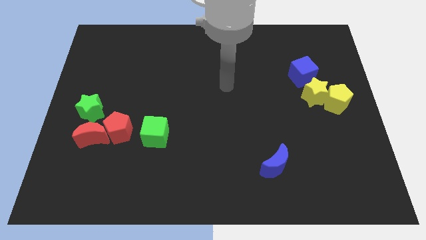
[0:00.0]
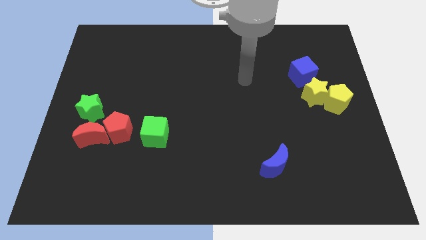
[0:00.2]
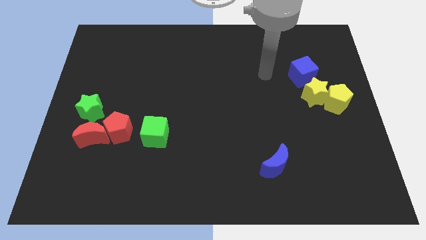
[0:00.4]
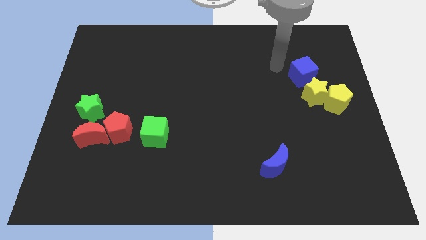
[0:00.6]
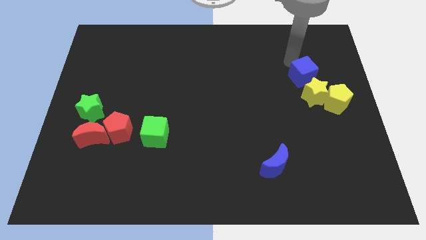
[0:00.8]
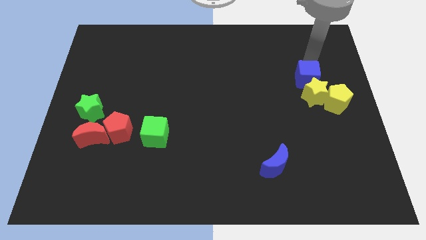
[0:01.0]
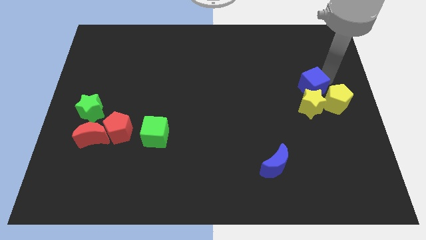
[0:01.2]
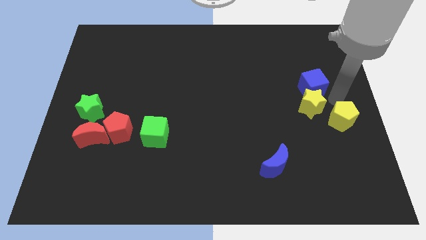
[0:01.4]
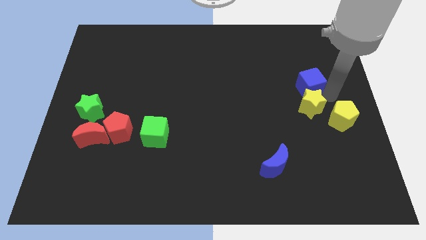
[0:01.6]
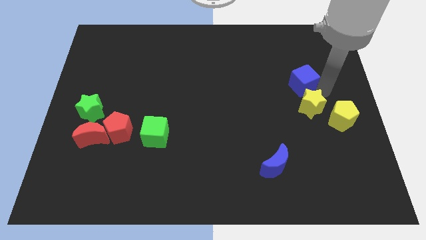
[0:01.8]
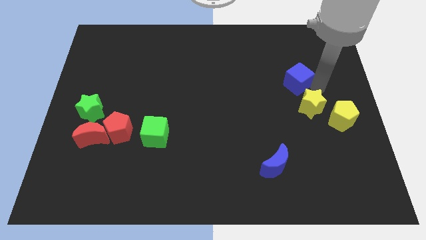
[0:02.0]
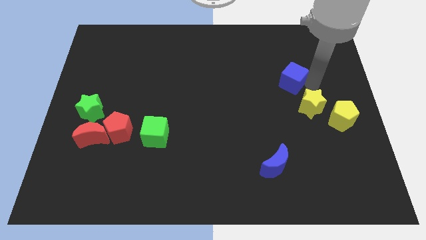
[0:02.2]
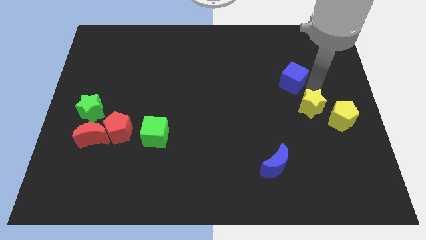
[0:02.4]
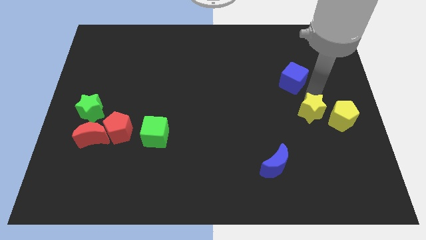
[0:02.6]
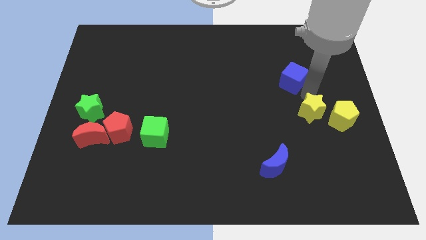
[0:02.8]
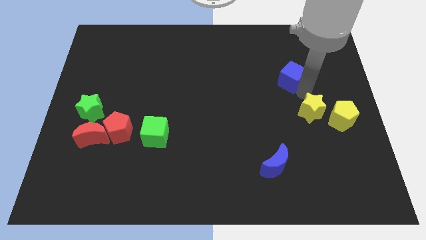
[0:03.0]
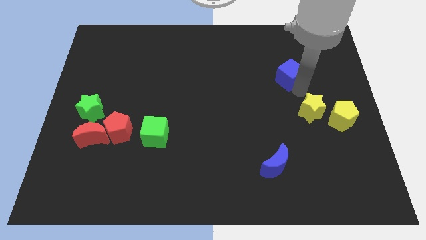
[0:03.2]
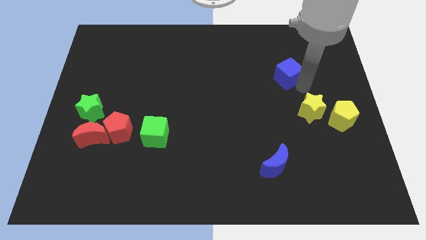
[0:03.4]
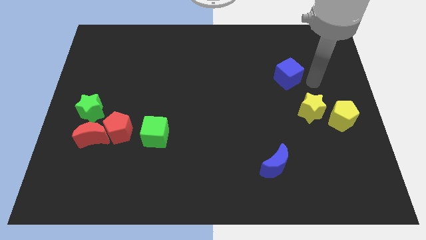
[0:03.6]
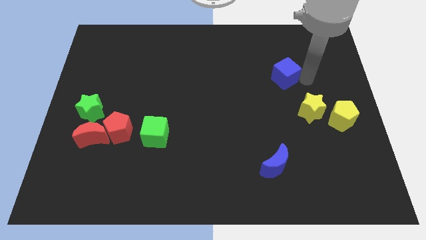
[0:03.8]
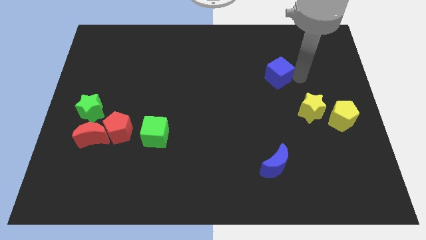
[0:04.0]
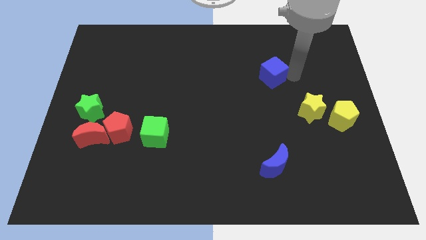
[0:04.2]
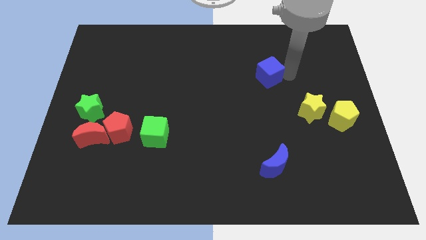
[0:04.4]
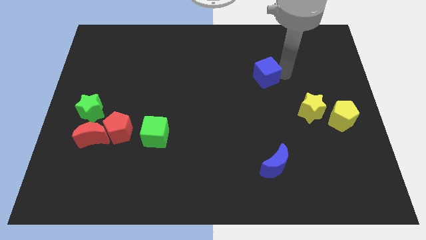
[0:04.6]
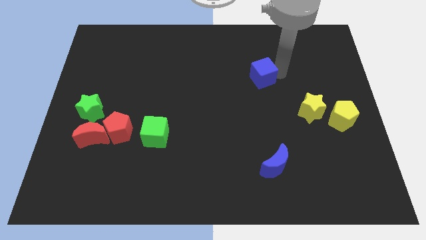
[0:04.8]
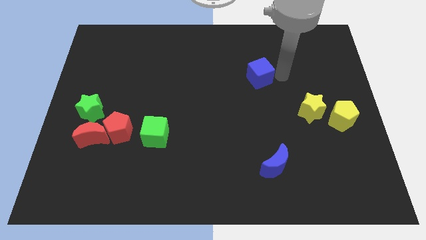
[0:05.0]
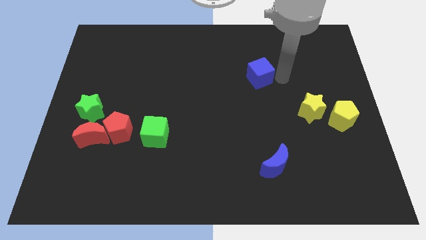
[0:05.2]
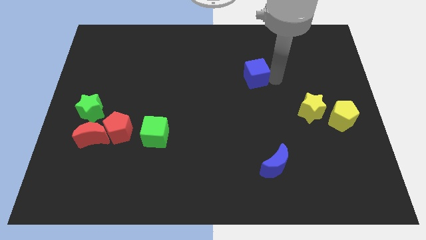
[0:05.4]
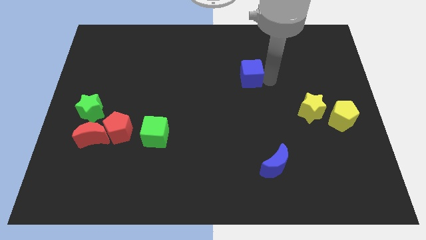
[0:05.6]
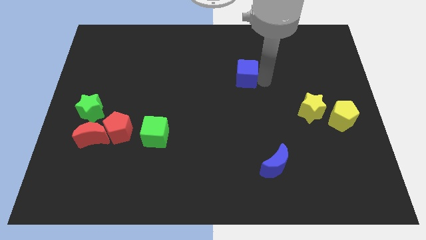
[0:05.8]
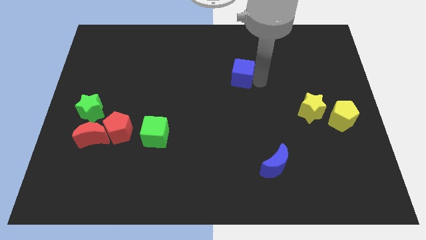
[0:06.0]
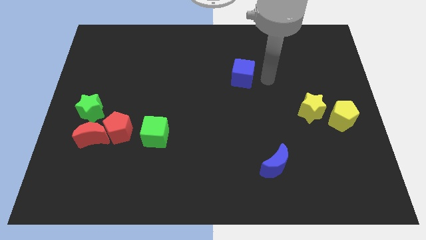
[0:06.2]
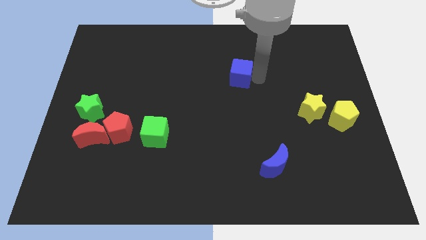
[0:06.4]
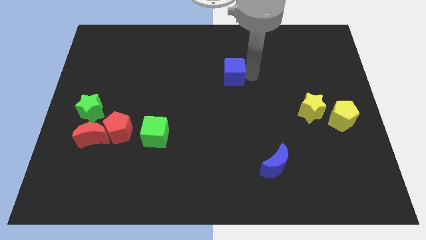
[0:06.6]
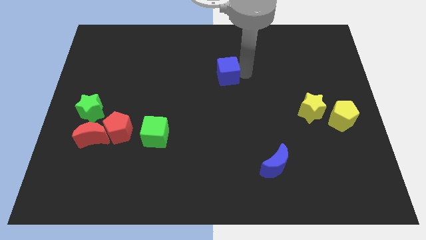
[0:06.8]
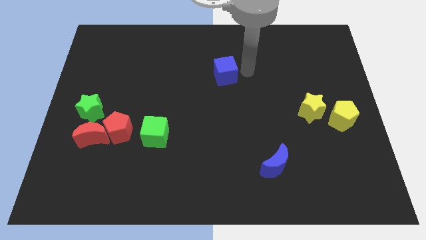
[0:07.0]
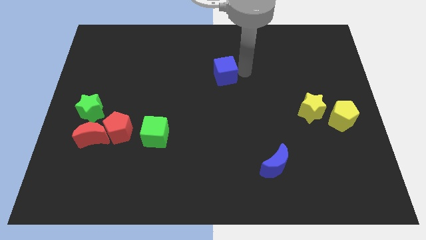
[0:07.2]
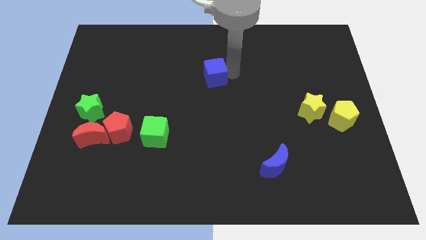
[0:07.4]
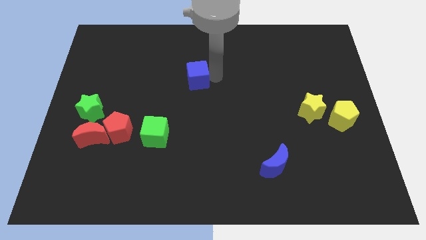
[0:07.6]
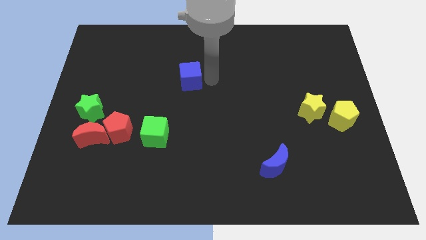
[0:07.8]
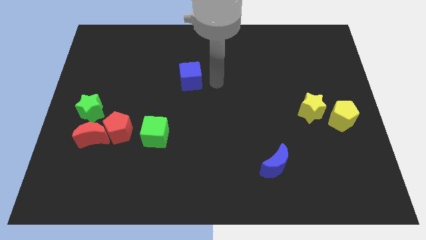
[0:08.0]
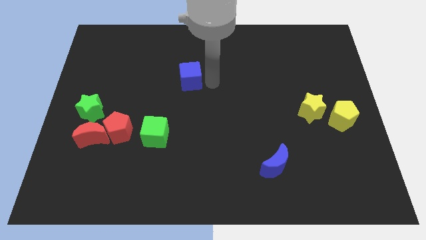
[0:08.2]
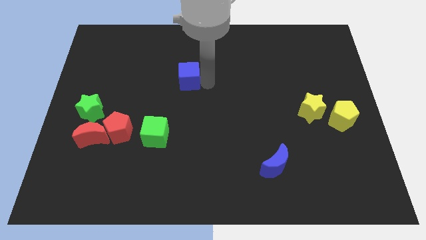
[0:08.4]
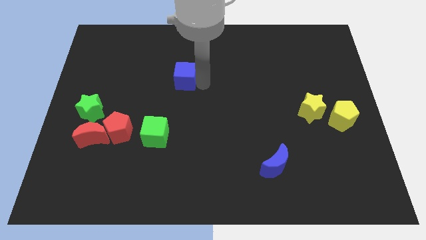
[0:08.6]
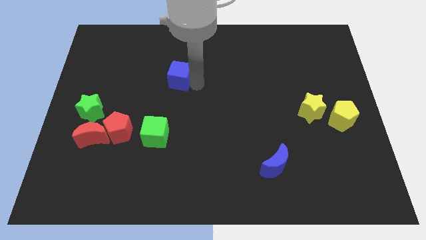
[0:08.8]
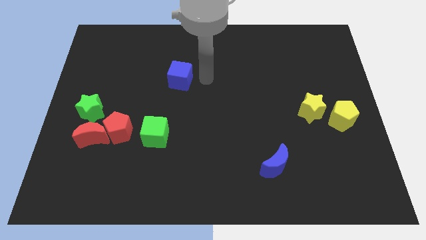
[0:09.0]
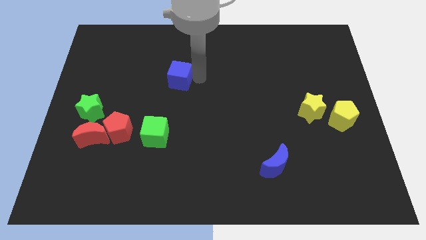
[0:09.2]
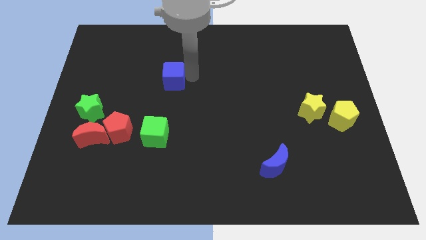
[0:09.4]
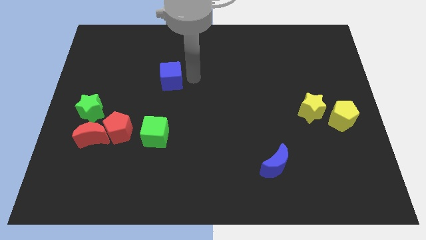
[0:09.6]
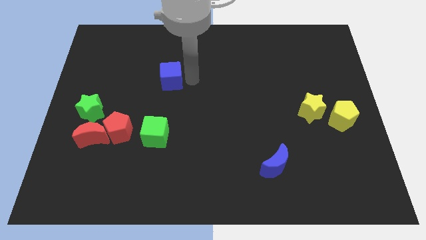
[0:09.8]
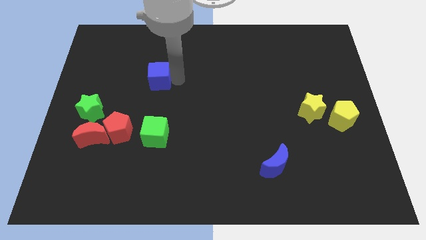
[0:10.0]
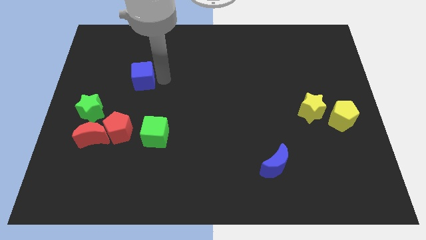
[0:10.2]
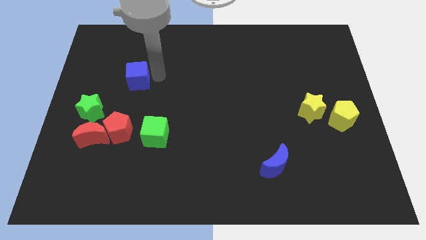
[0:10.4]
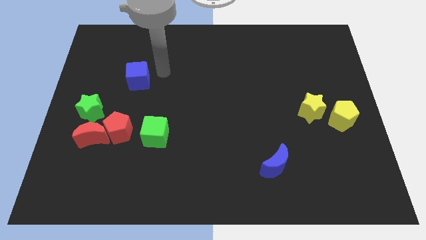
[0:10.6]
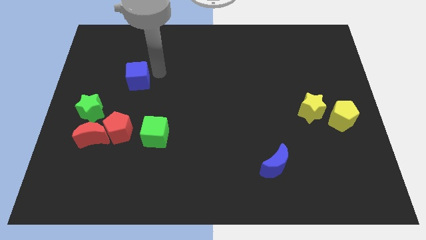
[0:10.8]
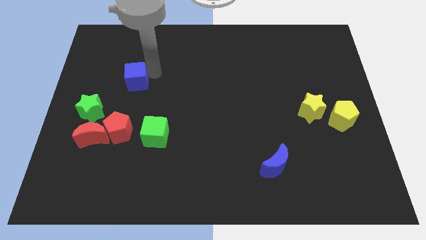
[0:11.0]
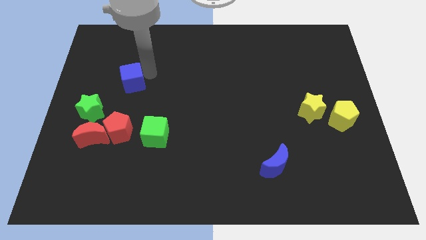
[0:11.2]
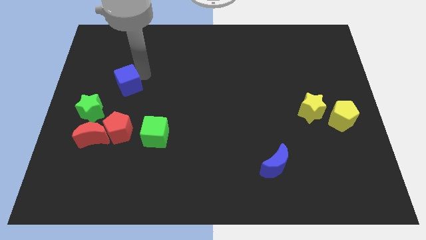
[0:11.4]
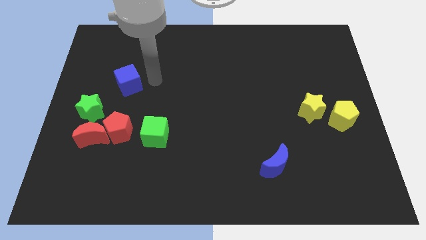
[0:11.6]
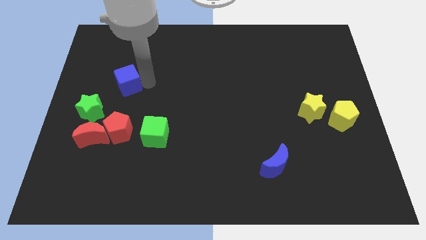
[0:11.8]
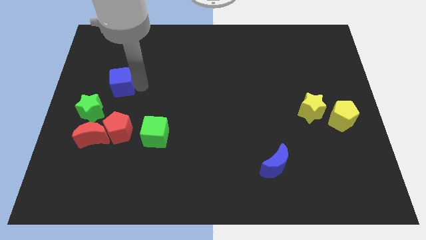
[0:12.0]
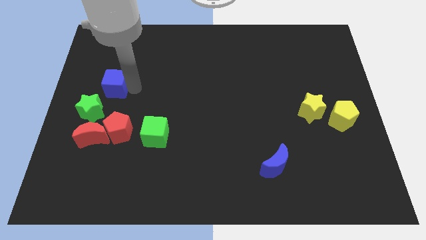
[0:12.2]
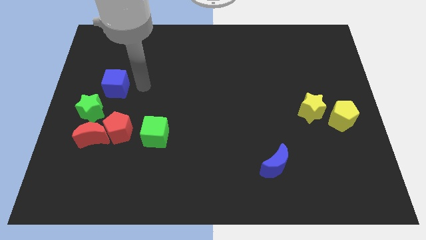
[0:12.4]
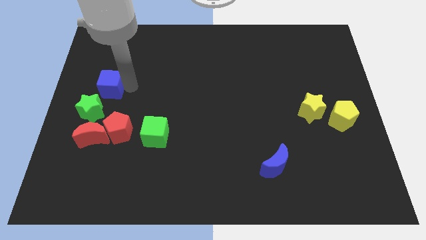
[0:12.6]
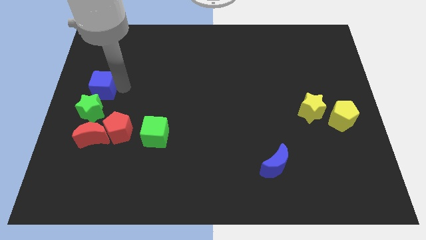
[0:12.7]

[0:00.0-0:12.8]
slide the blue cube to the center left

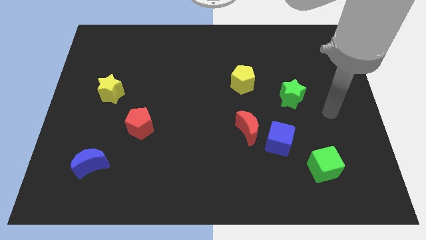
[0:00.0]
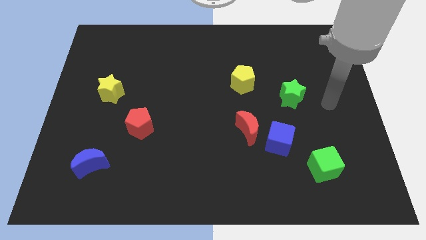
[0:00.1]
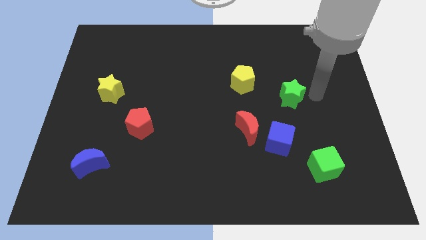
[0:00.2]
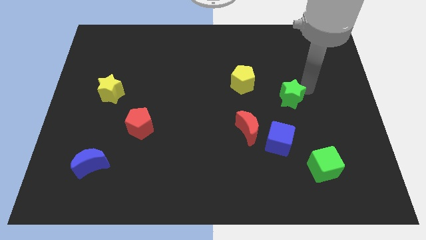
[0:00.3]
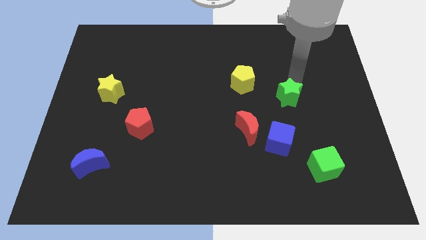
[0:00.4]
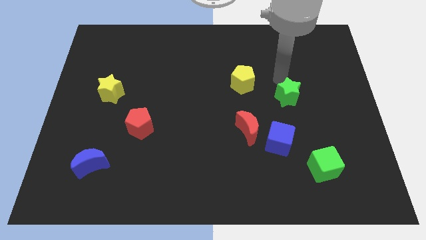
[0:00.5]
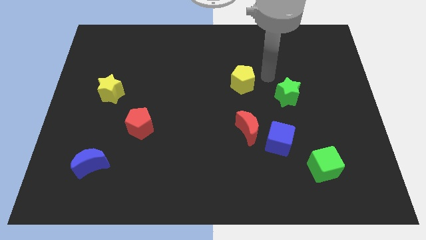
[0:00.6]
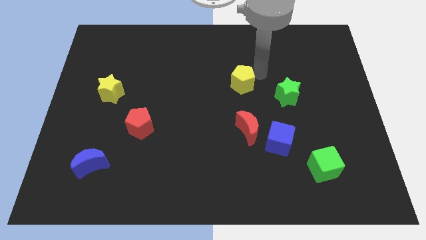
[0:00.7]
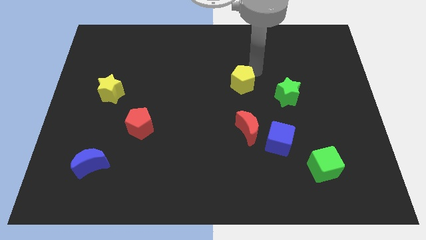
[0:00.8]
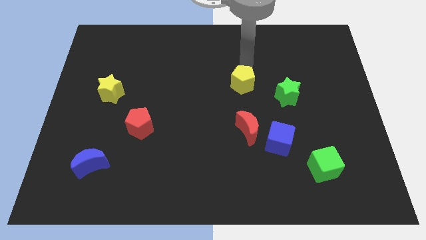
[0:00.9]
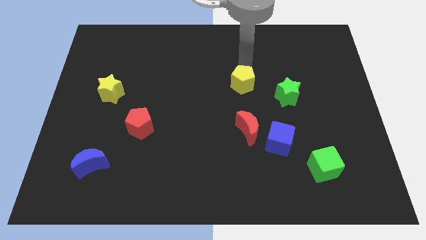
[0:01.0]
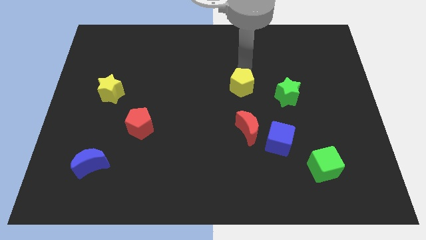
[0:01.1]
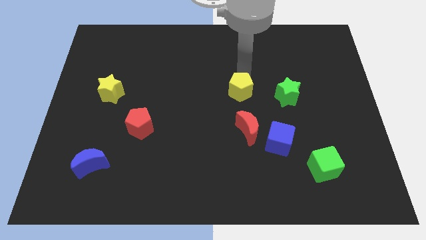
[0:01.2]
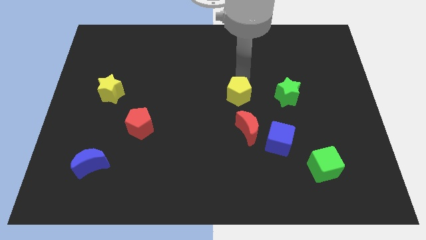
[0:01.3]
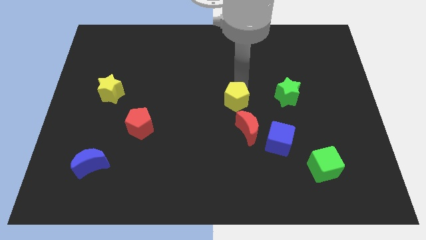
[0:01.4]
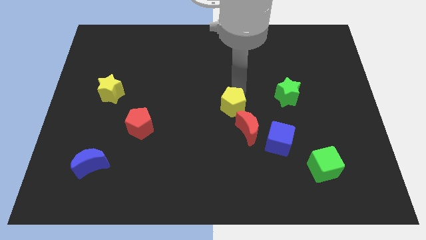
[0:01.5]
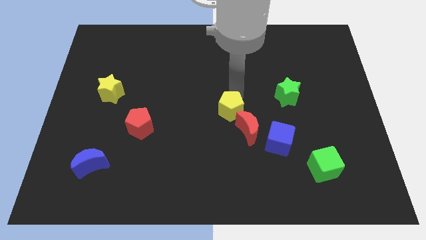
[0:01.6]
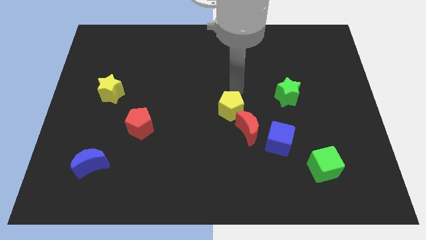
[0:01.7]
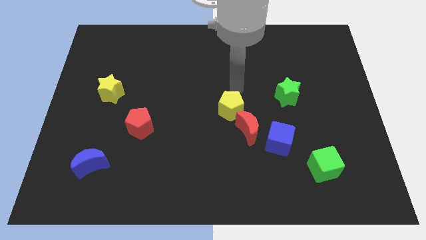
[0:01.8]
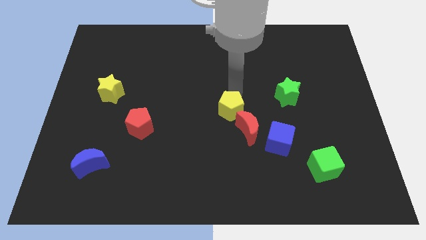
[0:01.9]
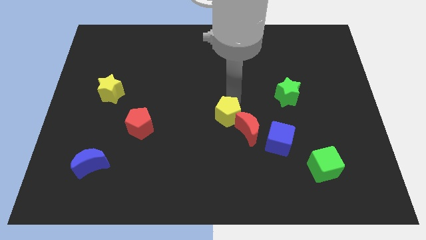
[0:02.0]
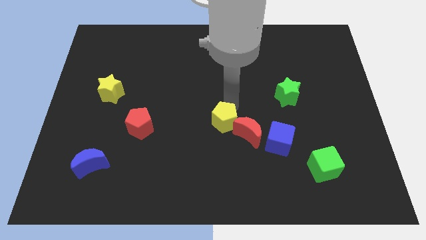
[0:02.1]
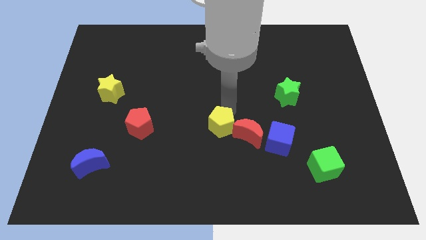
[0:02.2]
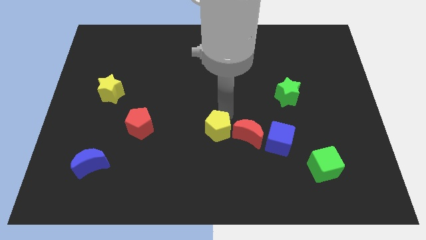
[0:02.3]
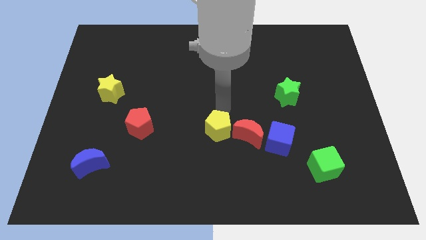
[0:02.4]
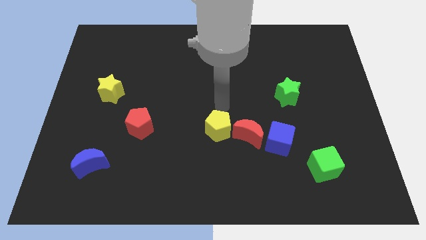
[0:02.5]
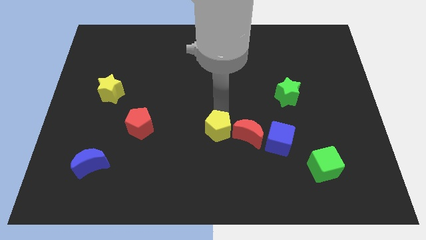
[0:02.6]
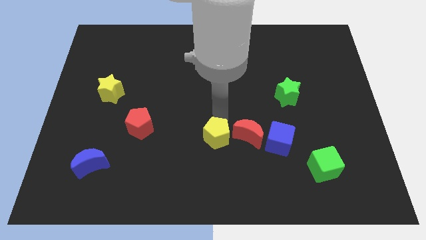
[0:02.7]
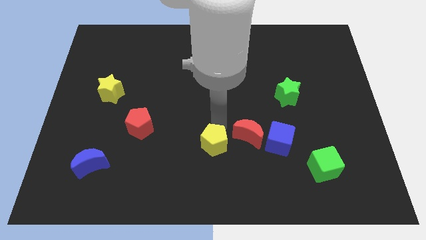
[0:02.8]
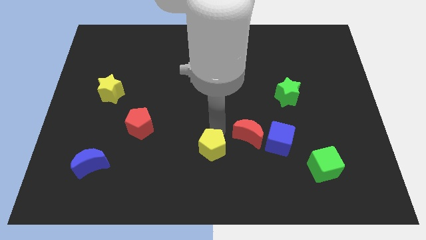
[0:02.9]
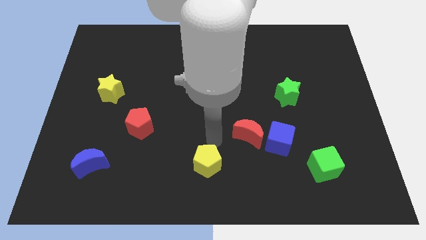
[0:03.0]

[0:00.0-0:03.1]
slide the yellow pentagon to the bottom side
